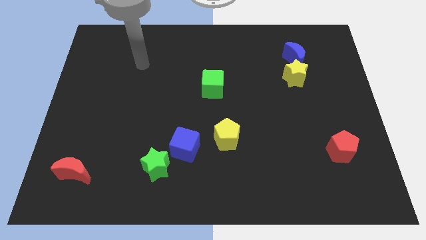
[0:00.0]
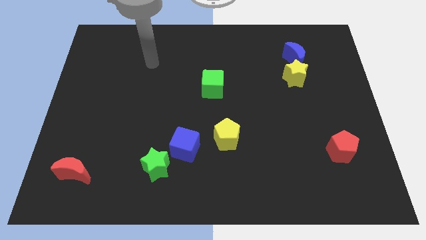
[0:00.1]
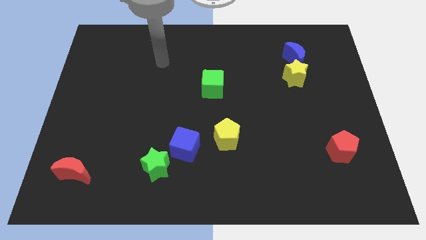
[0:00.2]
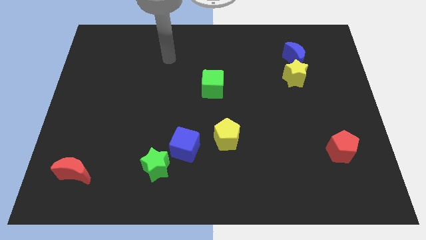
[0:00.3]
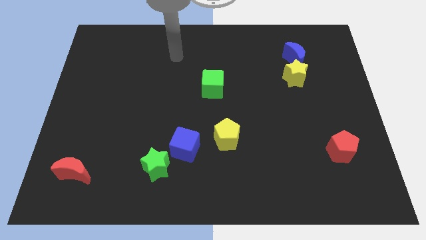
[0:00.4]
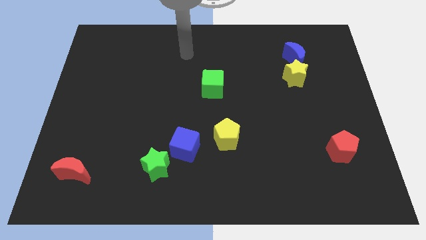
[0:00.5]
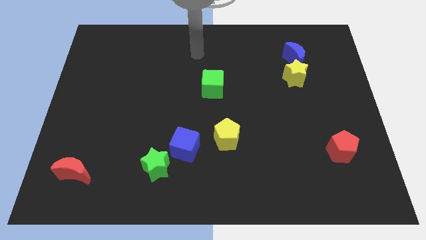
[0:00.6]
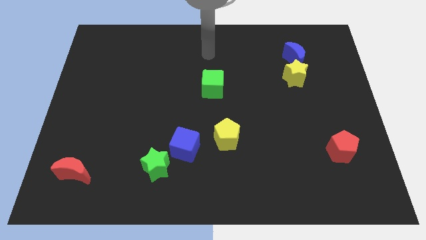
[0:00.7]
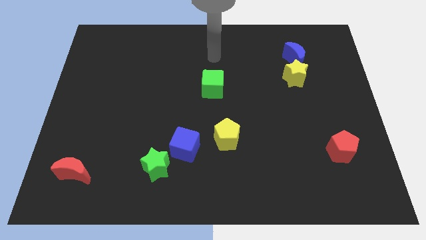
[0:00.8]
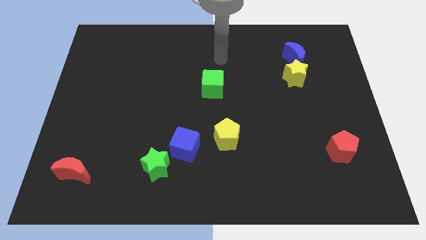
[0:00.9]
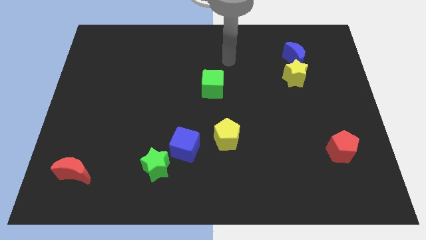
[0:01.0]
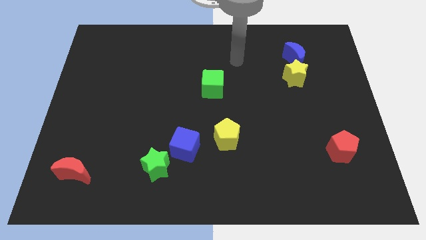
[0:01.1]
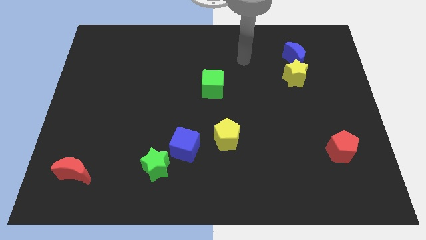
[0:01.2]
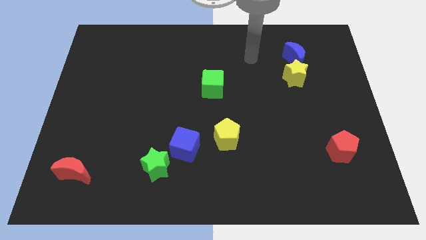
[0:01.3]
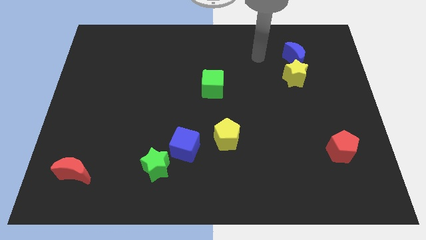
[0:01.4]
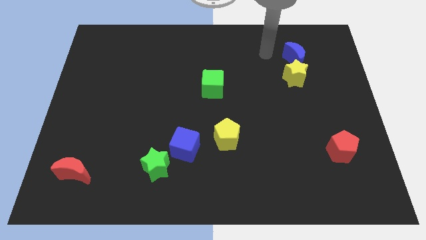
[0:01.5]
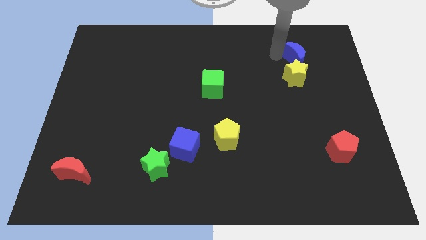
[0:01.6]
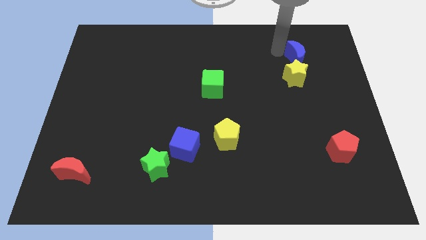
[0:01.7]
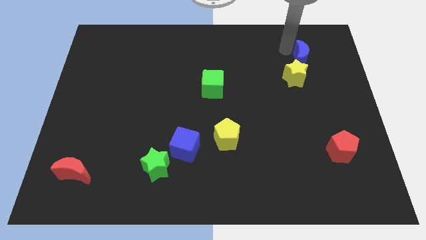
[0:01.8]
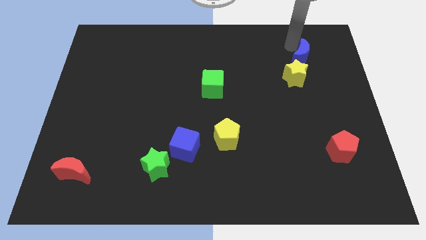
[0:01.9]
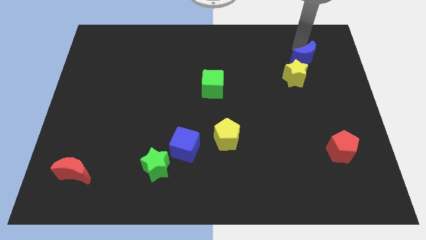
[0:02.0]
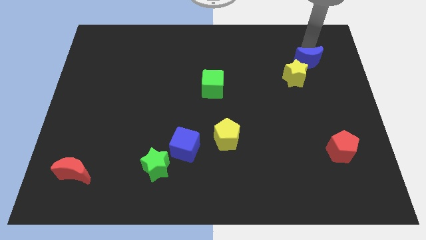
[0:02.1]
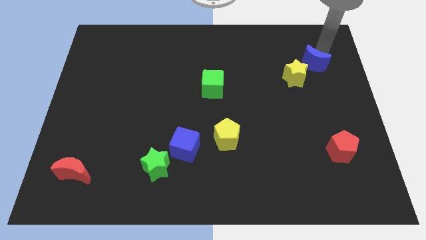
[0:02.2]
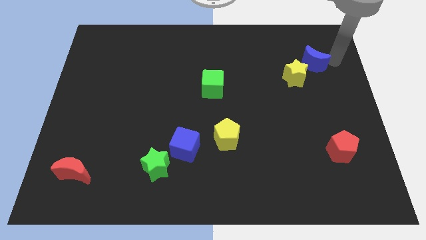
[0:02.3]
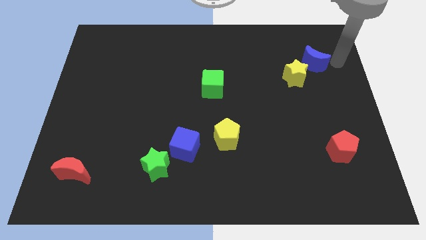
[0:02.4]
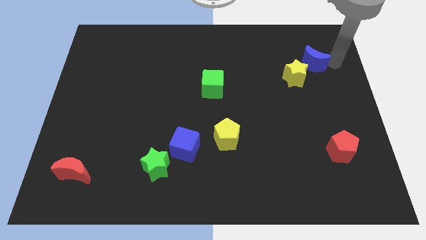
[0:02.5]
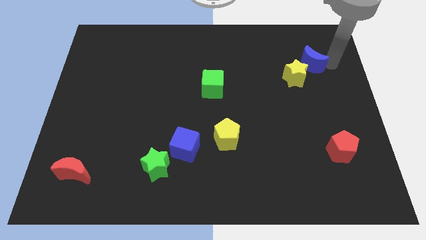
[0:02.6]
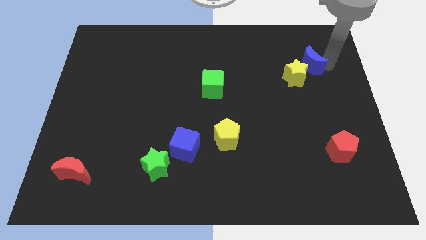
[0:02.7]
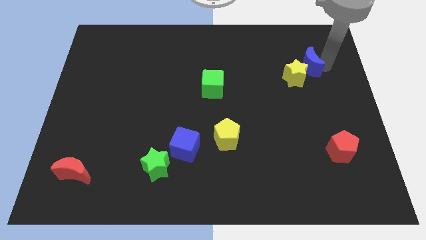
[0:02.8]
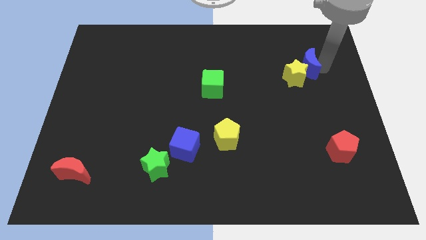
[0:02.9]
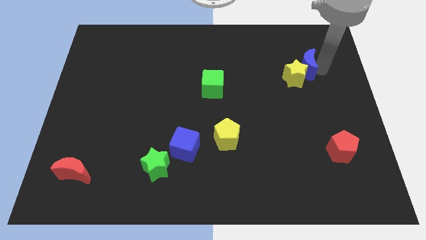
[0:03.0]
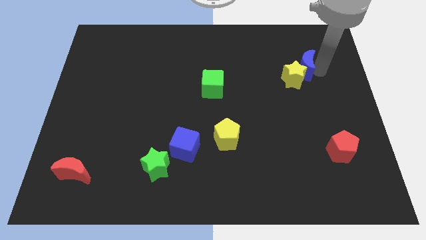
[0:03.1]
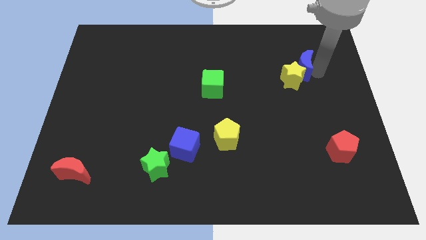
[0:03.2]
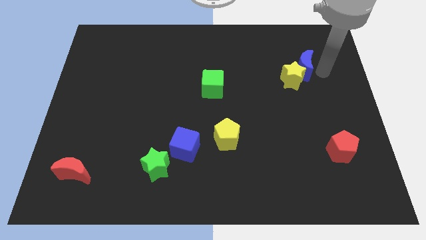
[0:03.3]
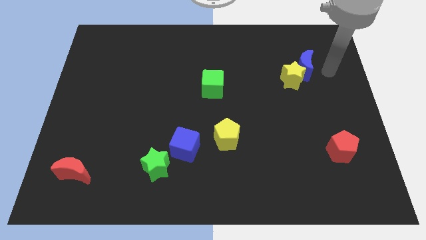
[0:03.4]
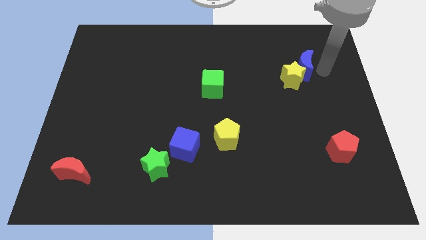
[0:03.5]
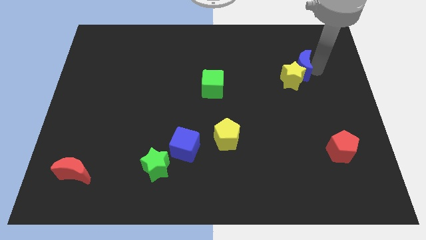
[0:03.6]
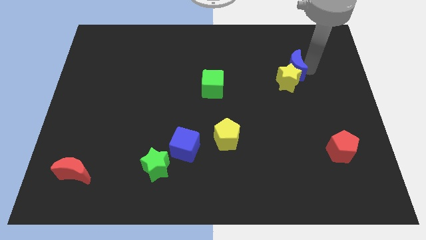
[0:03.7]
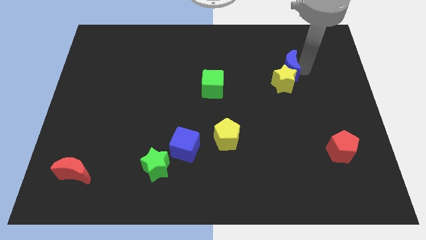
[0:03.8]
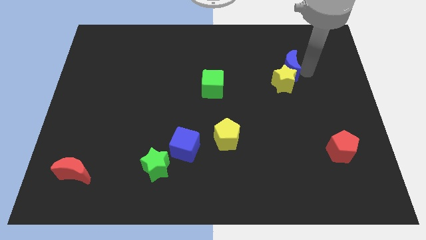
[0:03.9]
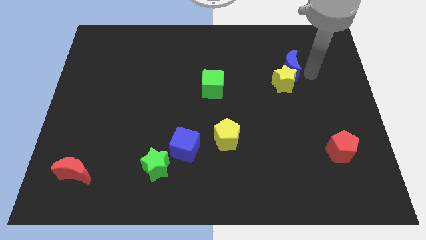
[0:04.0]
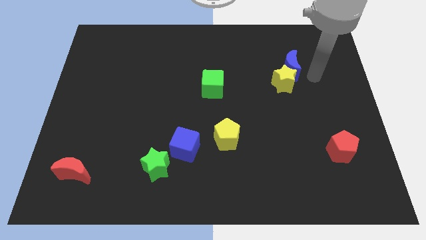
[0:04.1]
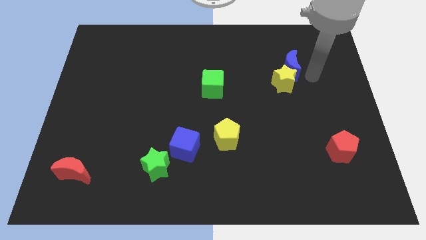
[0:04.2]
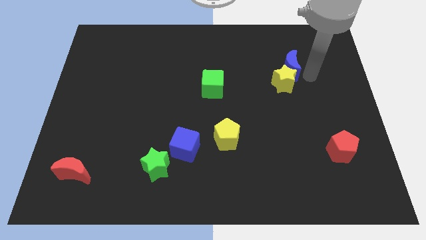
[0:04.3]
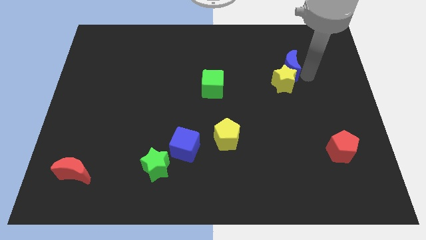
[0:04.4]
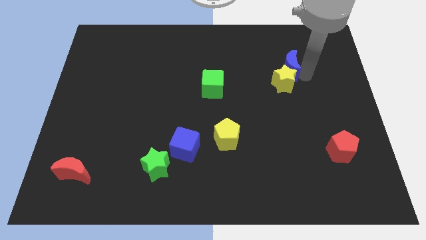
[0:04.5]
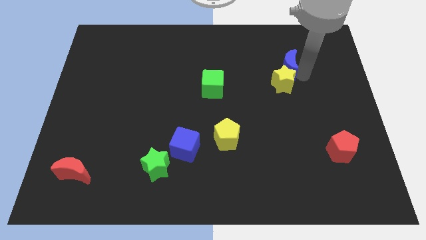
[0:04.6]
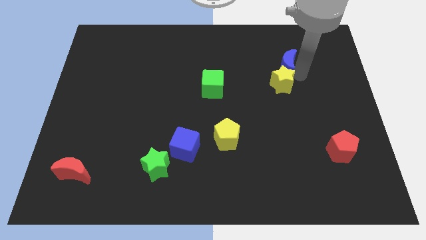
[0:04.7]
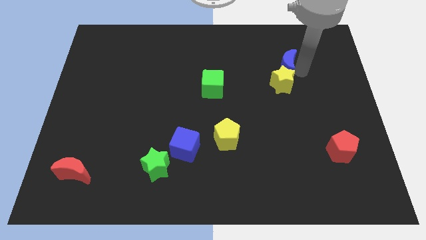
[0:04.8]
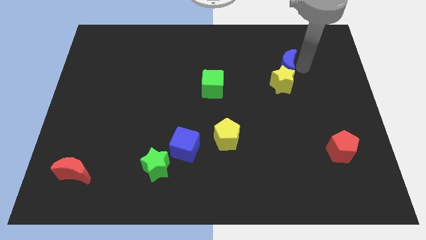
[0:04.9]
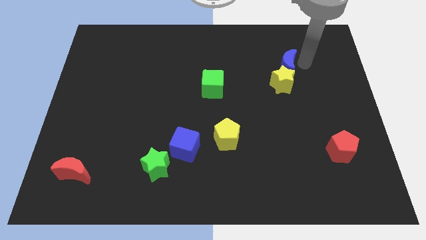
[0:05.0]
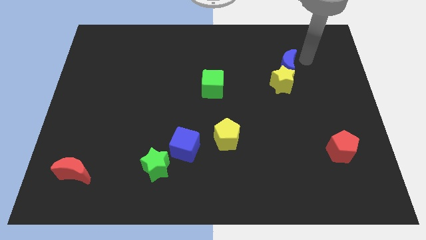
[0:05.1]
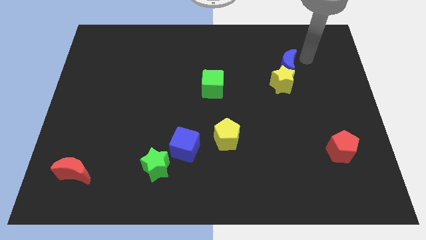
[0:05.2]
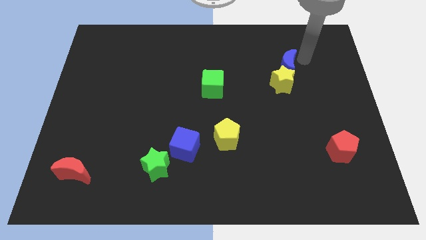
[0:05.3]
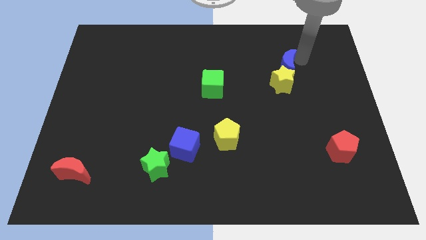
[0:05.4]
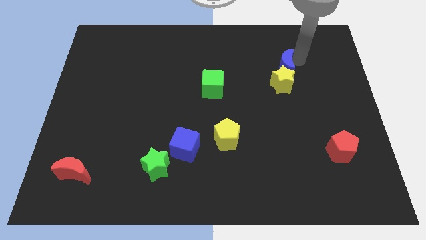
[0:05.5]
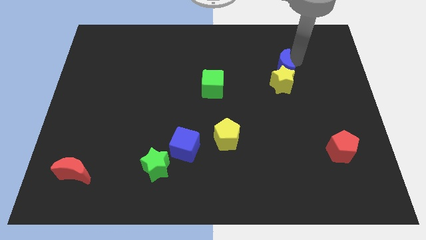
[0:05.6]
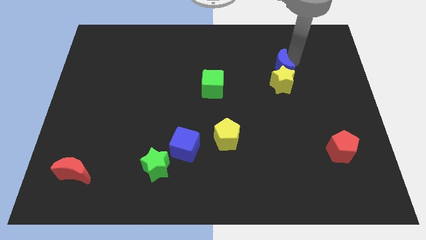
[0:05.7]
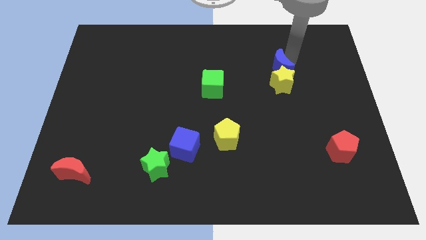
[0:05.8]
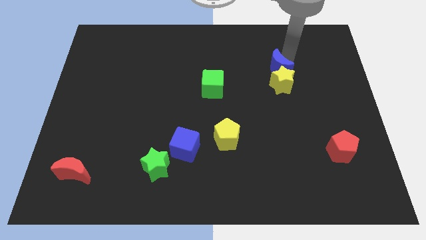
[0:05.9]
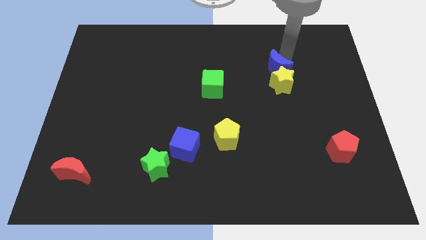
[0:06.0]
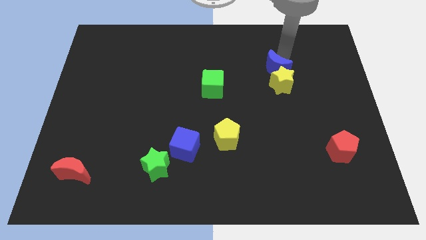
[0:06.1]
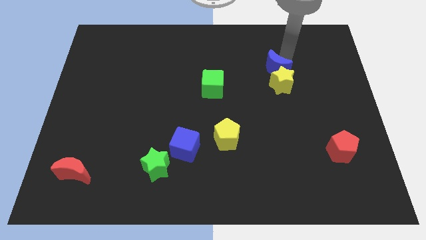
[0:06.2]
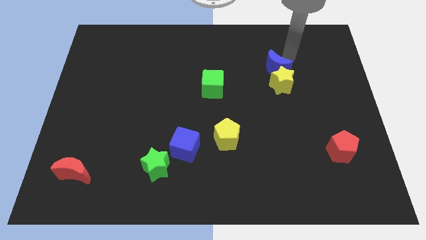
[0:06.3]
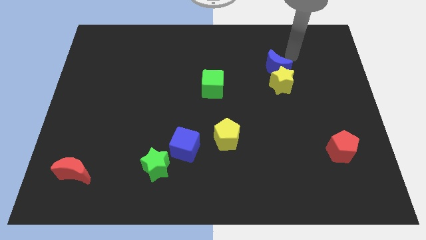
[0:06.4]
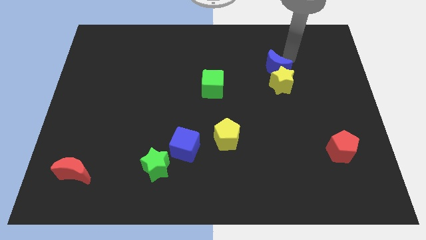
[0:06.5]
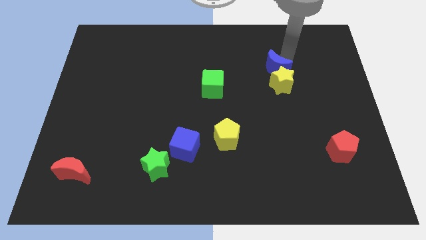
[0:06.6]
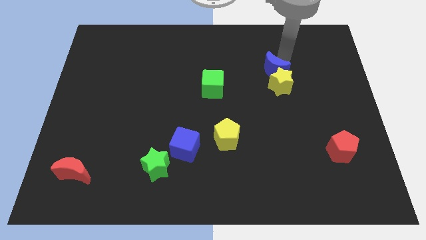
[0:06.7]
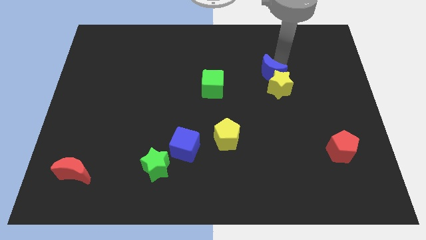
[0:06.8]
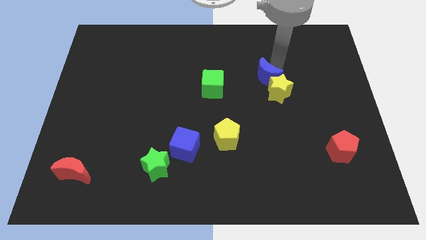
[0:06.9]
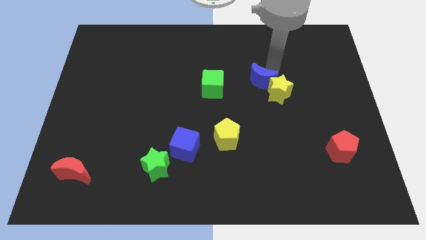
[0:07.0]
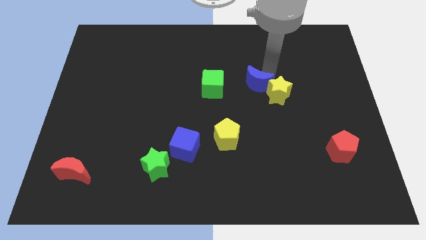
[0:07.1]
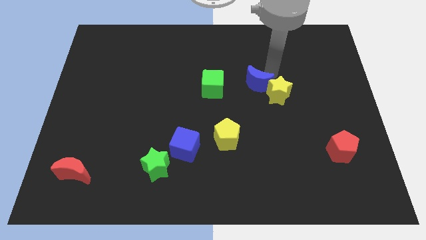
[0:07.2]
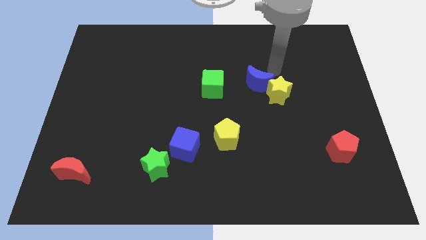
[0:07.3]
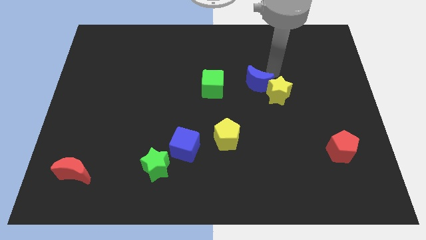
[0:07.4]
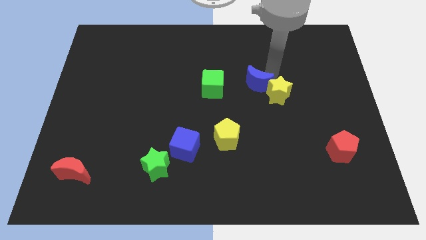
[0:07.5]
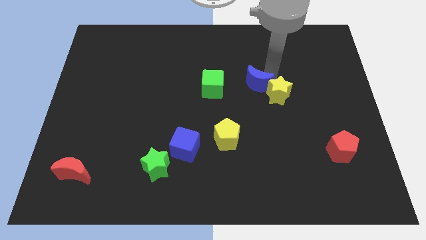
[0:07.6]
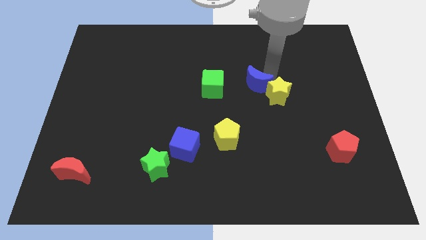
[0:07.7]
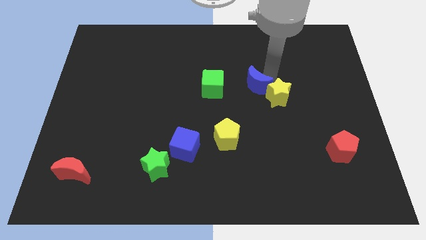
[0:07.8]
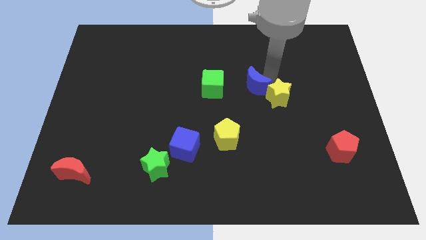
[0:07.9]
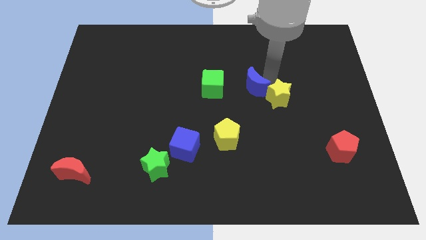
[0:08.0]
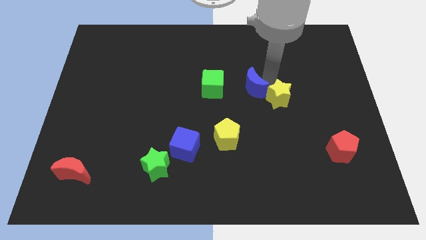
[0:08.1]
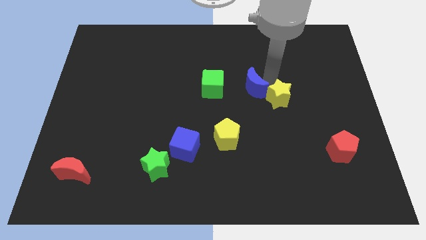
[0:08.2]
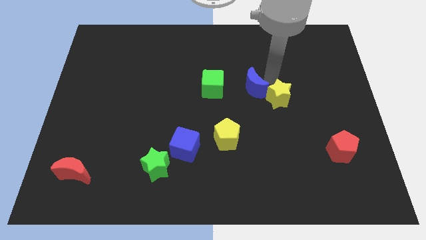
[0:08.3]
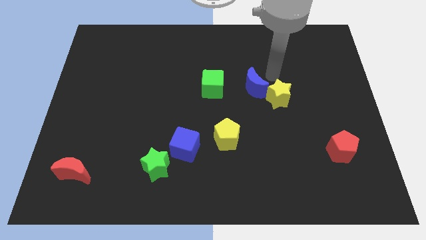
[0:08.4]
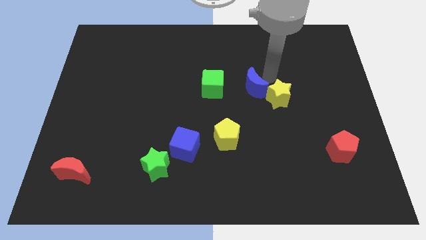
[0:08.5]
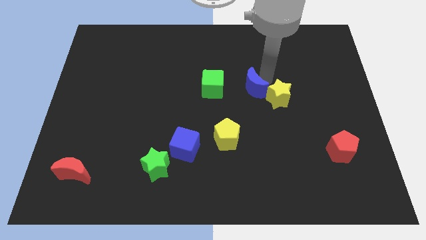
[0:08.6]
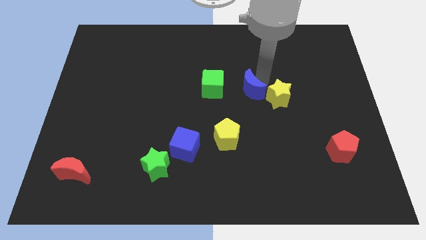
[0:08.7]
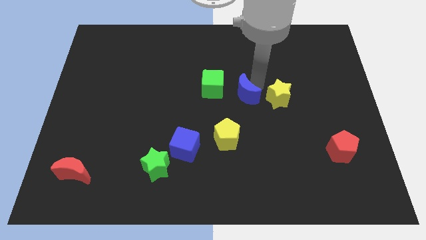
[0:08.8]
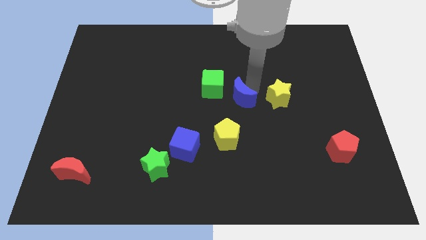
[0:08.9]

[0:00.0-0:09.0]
push the blue moon down and left diagonally
